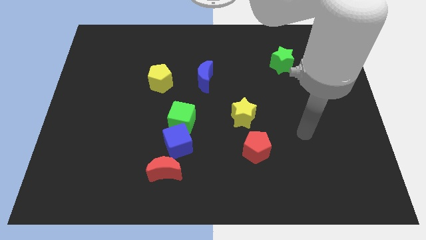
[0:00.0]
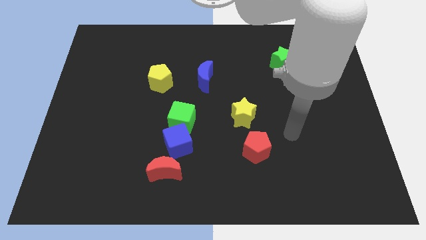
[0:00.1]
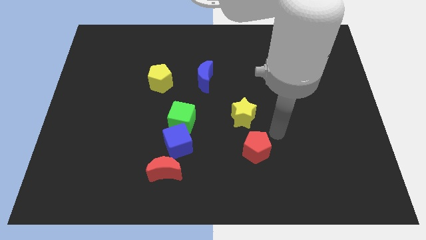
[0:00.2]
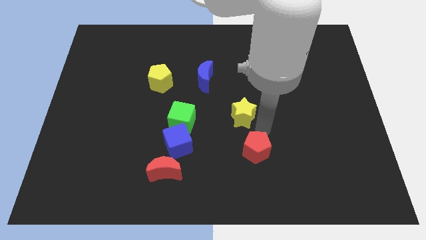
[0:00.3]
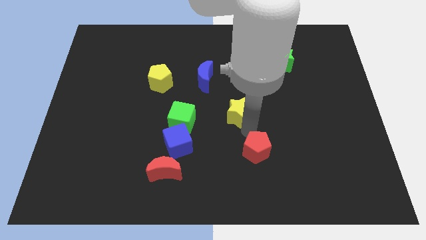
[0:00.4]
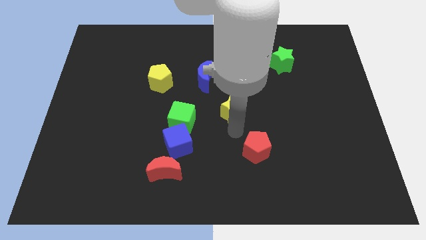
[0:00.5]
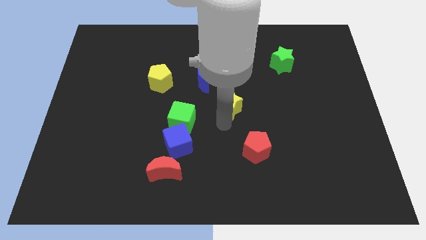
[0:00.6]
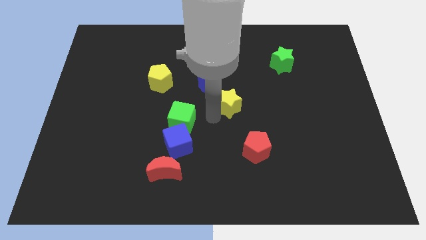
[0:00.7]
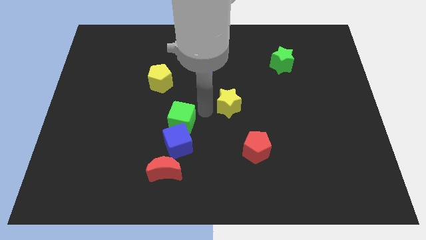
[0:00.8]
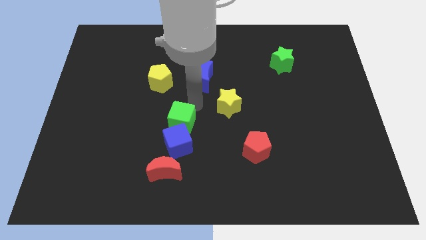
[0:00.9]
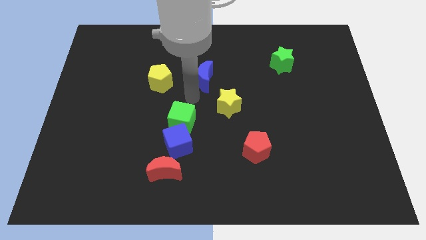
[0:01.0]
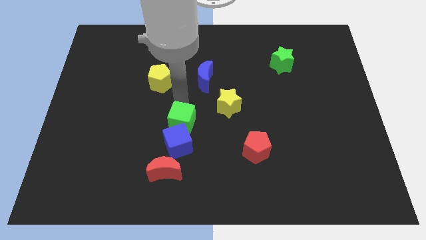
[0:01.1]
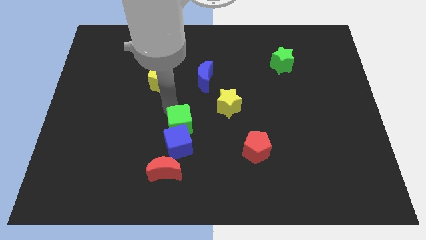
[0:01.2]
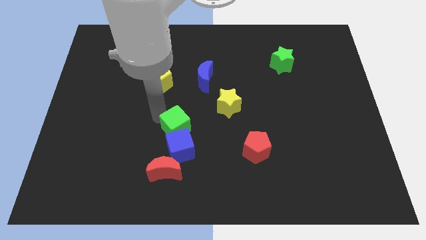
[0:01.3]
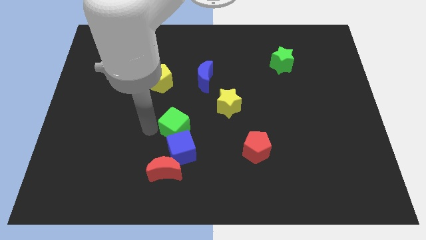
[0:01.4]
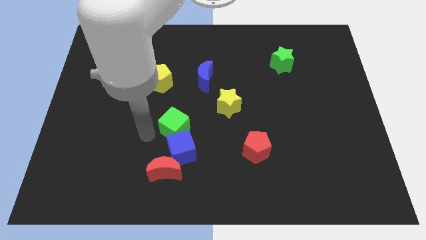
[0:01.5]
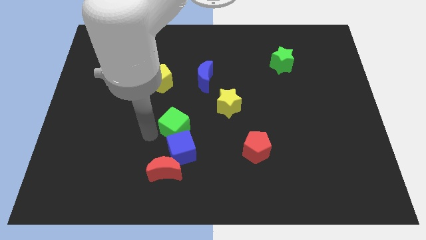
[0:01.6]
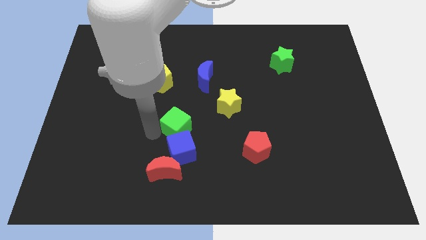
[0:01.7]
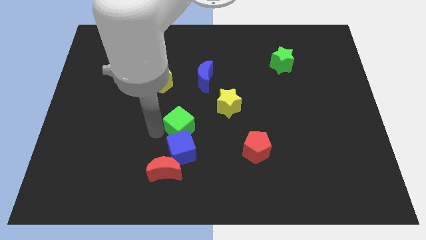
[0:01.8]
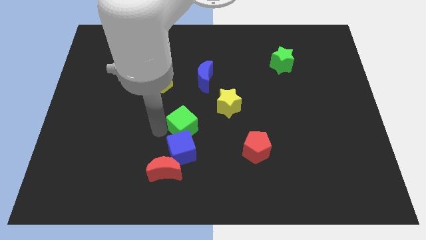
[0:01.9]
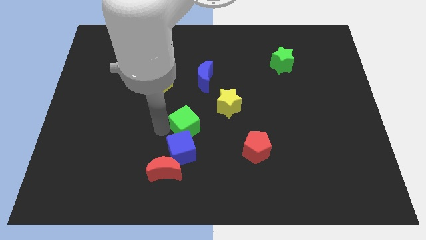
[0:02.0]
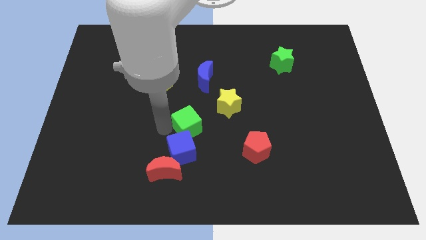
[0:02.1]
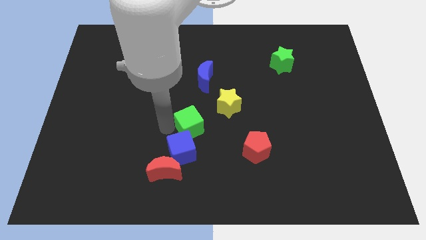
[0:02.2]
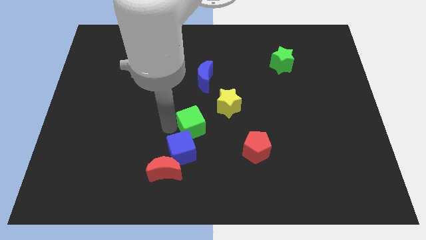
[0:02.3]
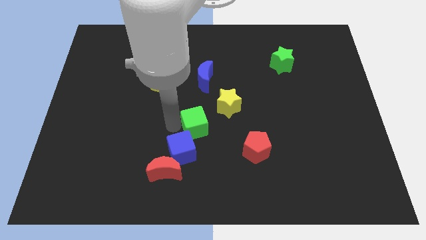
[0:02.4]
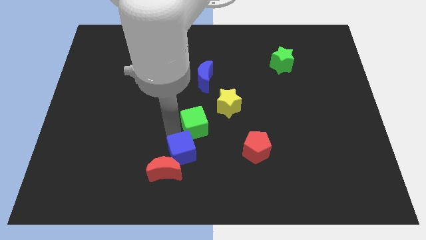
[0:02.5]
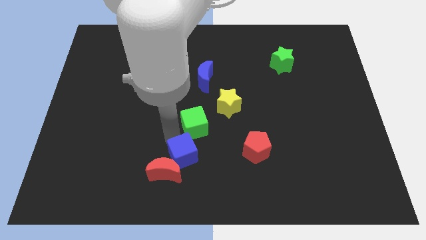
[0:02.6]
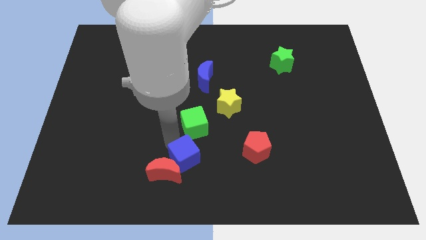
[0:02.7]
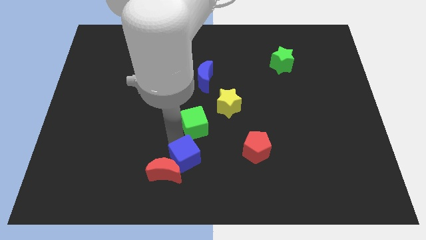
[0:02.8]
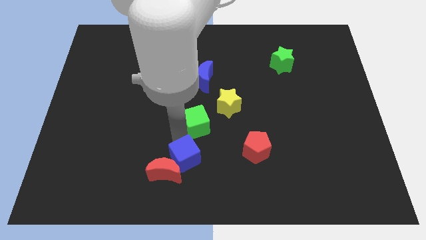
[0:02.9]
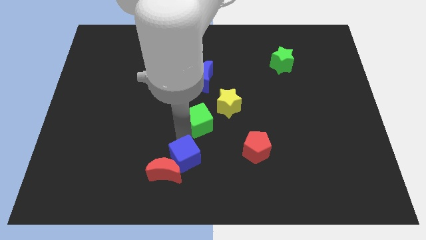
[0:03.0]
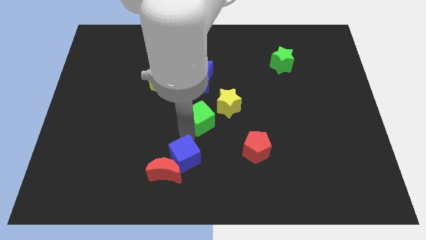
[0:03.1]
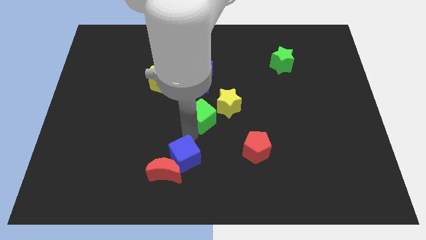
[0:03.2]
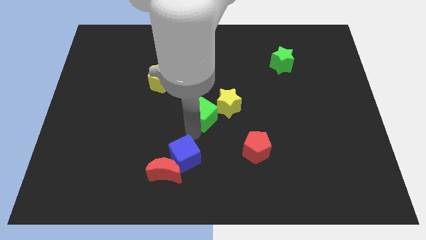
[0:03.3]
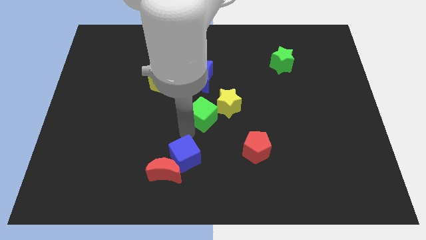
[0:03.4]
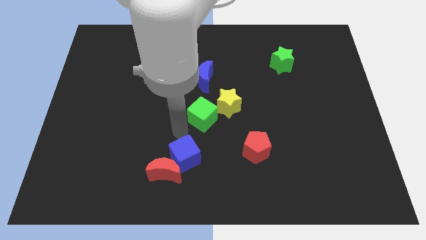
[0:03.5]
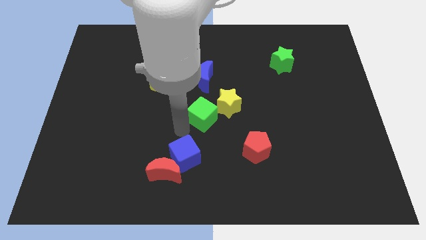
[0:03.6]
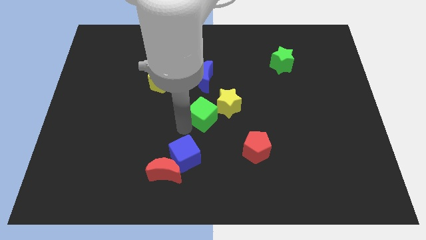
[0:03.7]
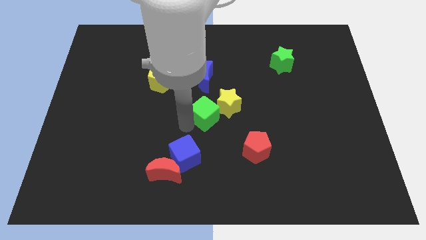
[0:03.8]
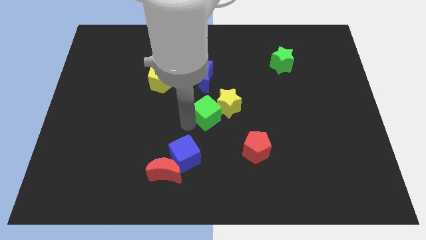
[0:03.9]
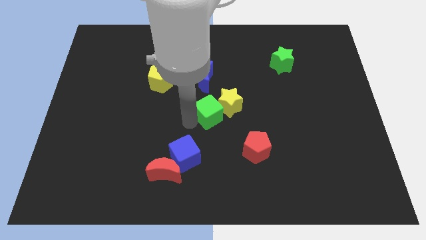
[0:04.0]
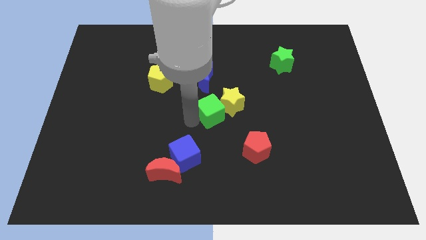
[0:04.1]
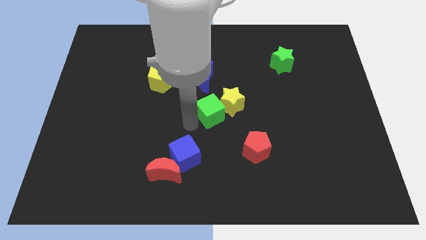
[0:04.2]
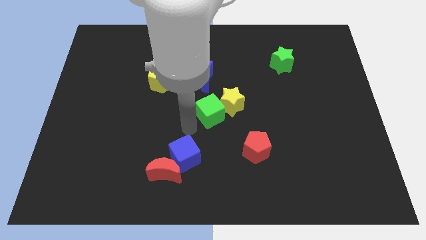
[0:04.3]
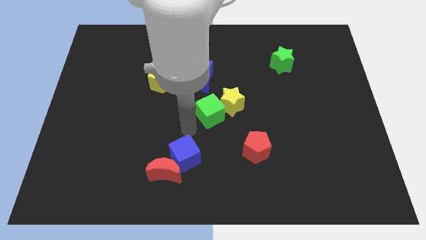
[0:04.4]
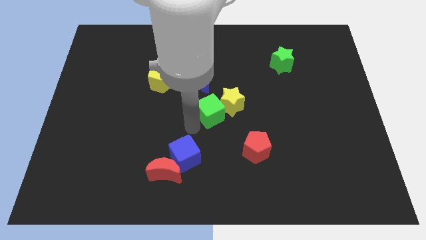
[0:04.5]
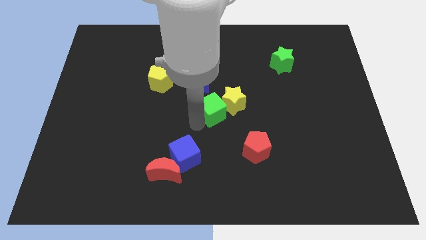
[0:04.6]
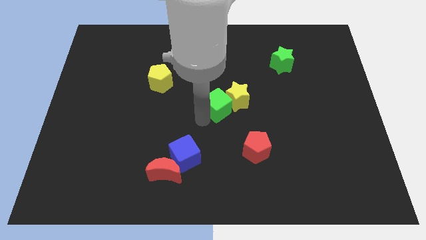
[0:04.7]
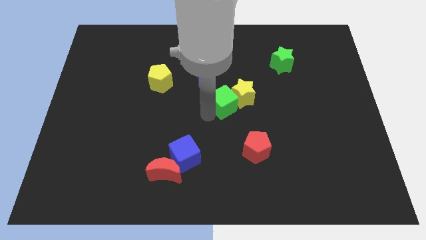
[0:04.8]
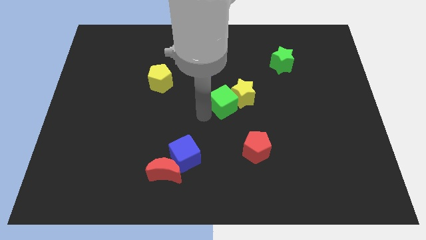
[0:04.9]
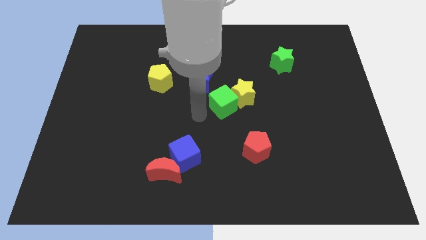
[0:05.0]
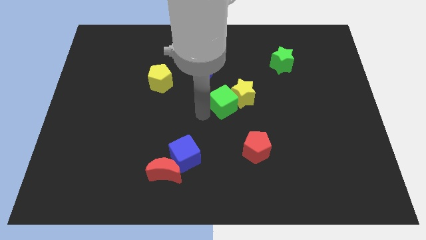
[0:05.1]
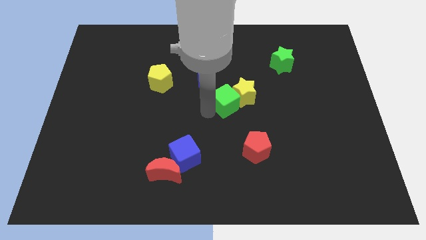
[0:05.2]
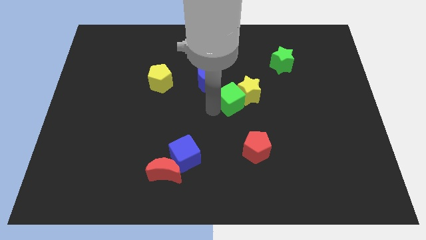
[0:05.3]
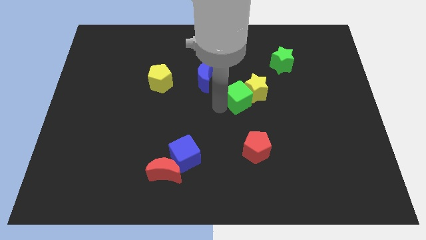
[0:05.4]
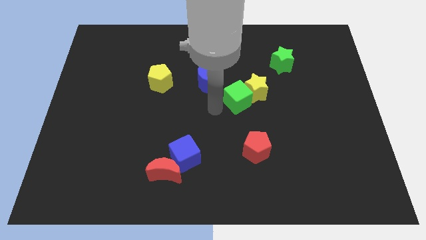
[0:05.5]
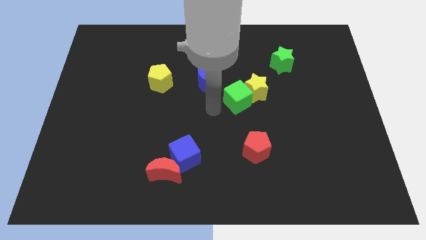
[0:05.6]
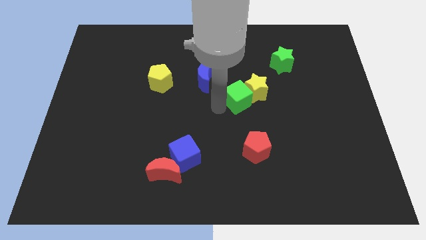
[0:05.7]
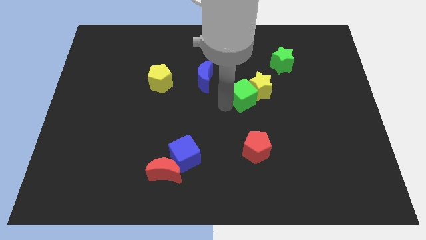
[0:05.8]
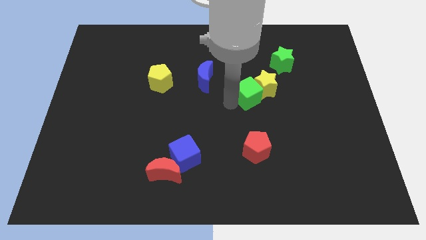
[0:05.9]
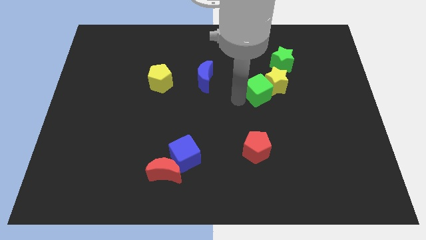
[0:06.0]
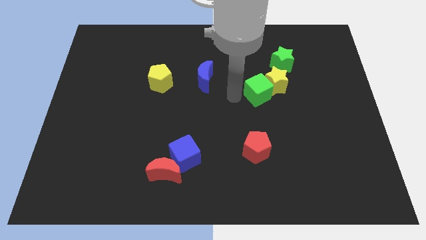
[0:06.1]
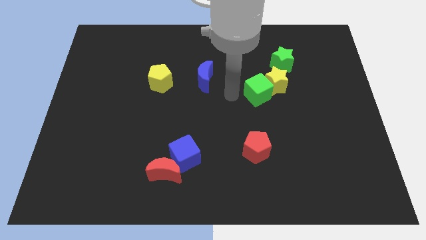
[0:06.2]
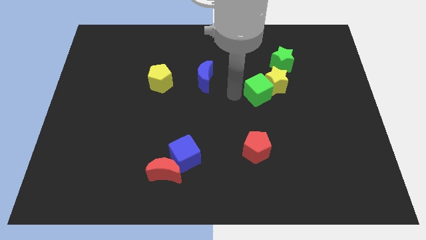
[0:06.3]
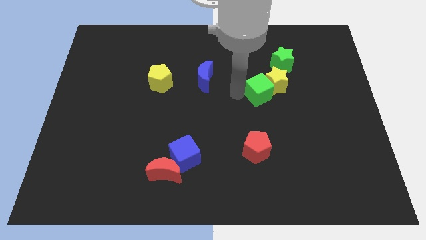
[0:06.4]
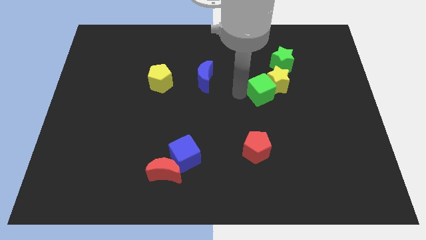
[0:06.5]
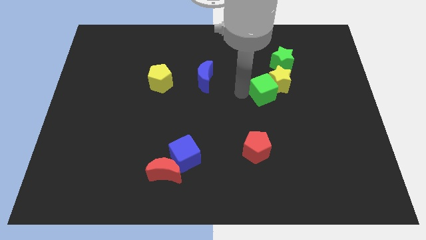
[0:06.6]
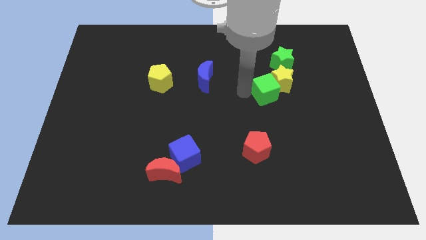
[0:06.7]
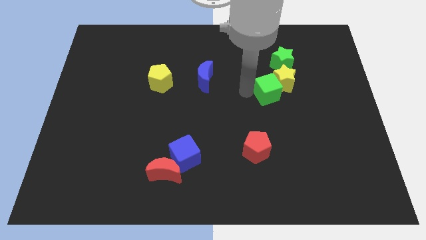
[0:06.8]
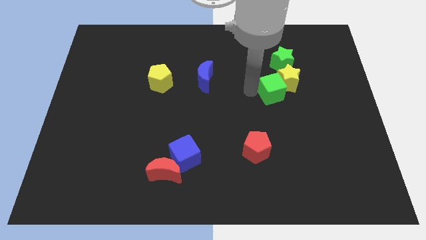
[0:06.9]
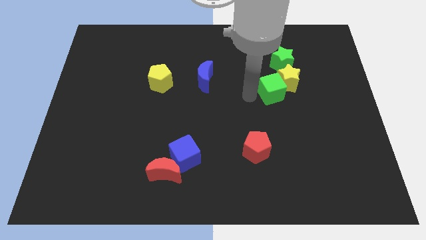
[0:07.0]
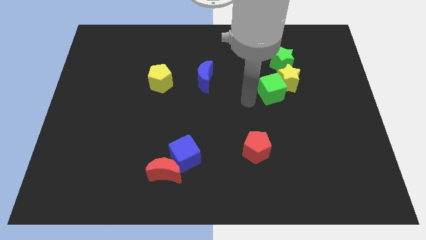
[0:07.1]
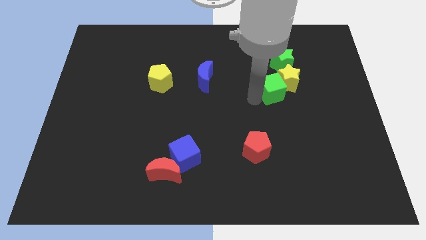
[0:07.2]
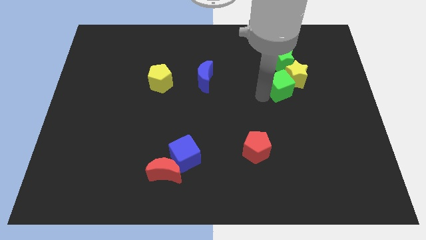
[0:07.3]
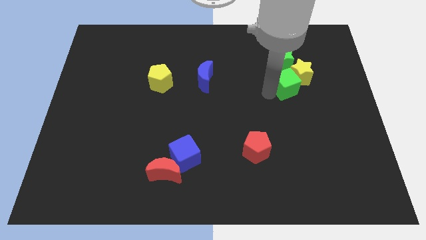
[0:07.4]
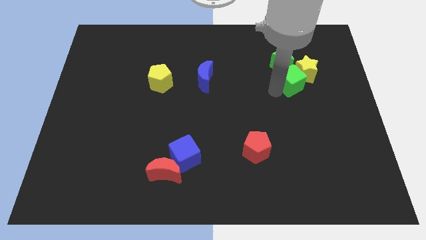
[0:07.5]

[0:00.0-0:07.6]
put the green cube to the bottom right of the green star
